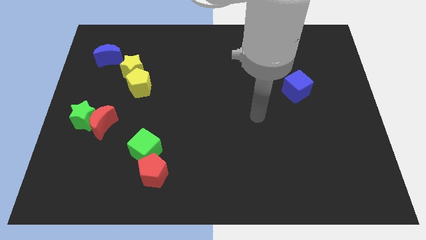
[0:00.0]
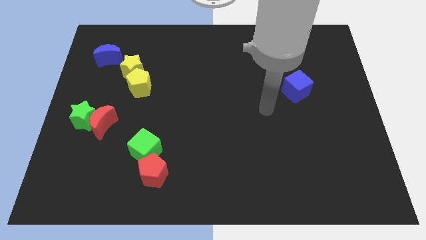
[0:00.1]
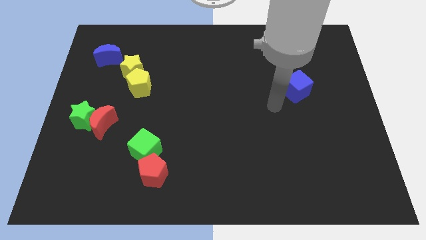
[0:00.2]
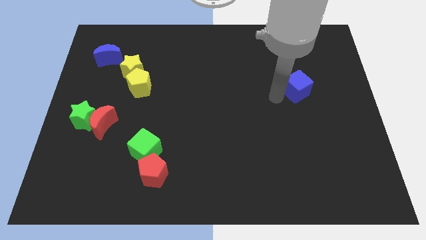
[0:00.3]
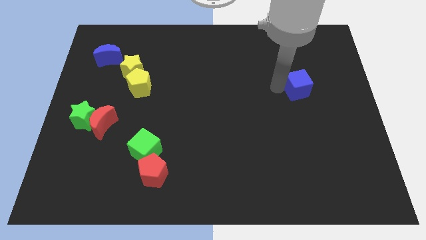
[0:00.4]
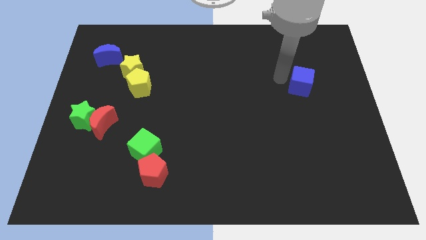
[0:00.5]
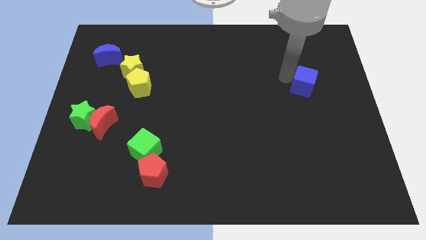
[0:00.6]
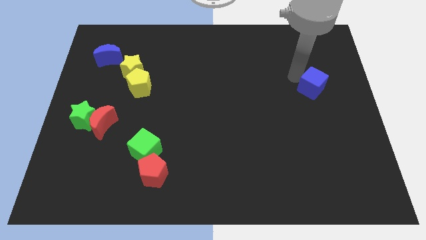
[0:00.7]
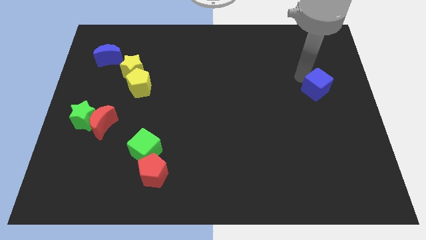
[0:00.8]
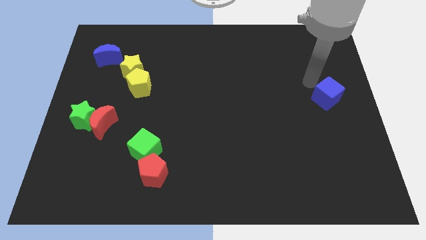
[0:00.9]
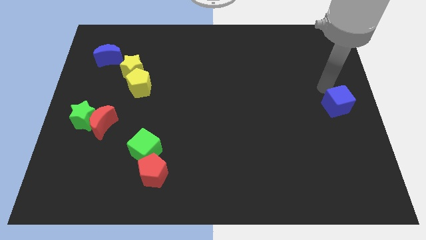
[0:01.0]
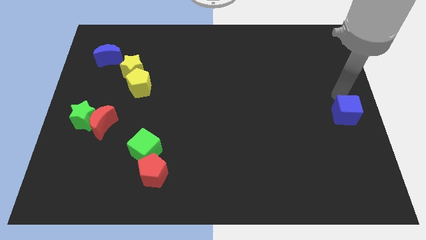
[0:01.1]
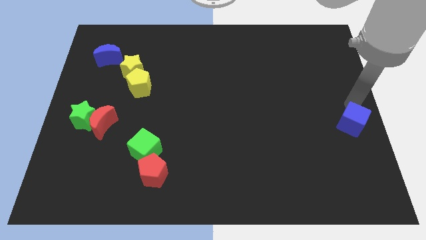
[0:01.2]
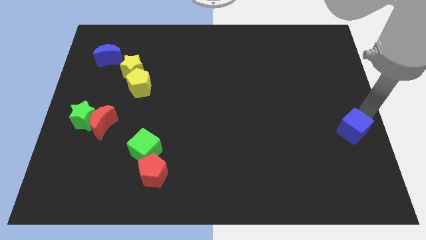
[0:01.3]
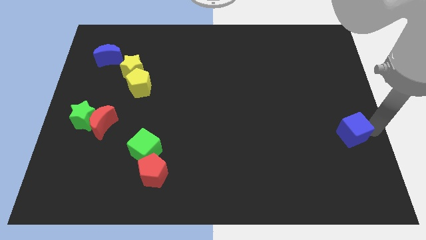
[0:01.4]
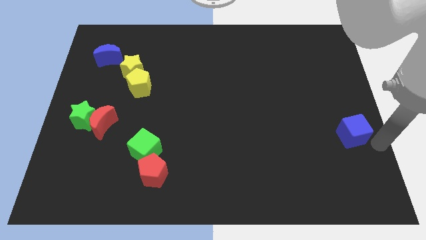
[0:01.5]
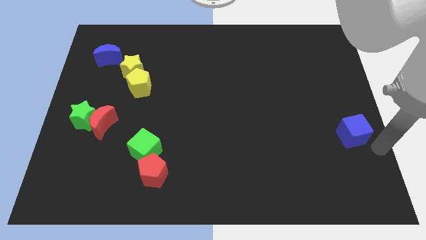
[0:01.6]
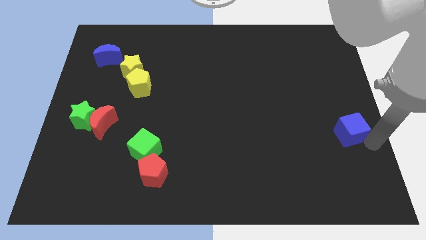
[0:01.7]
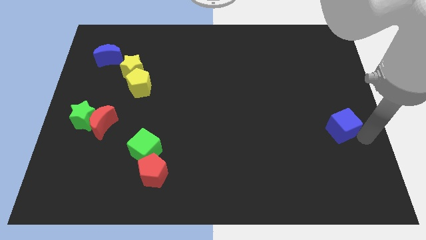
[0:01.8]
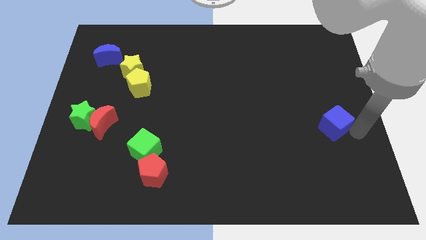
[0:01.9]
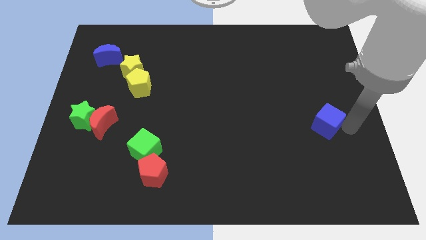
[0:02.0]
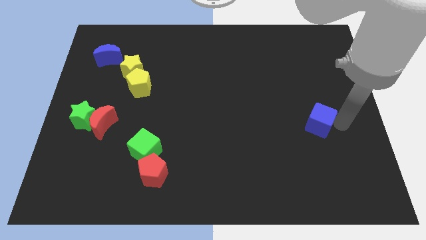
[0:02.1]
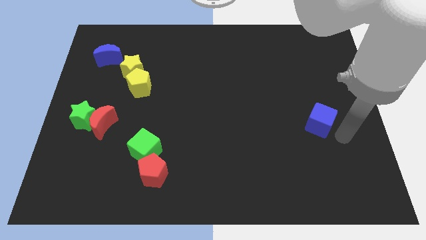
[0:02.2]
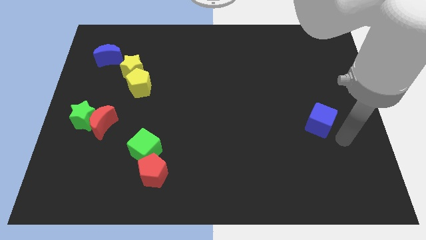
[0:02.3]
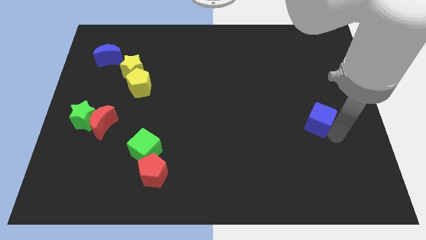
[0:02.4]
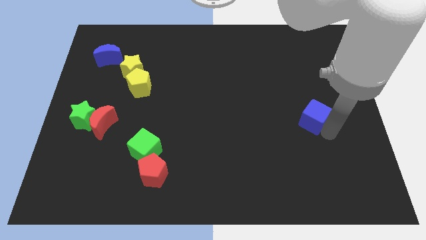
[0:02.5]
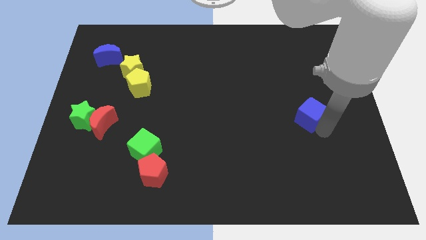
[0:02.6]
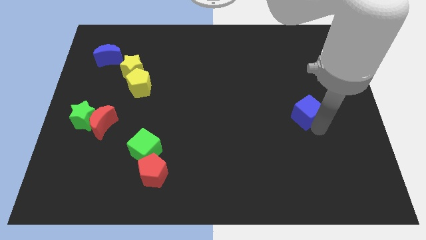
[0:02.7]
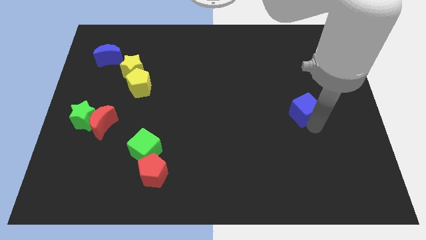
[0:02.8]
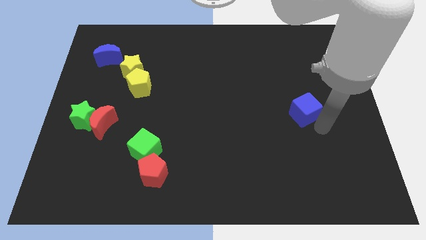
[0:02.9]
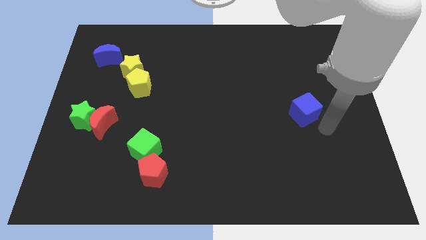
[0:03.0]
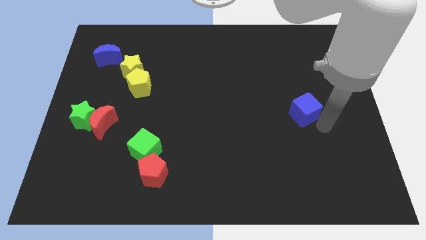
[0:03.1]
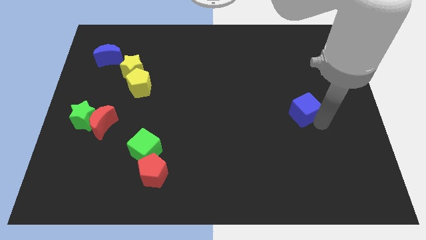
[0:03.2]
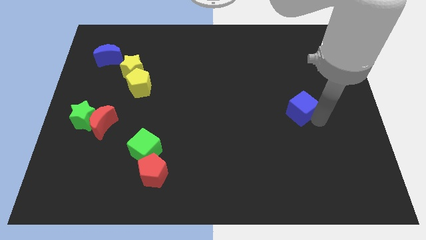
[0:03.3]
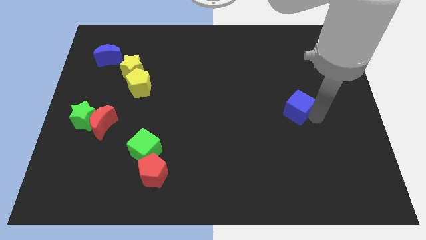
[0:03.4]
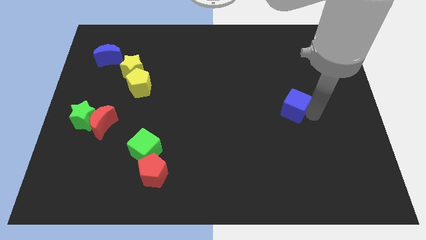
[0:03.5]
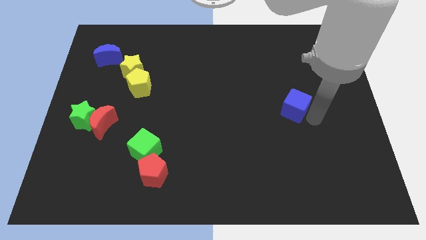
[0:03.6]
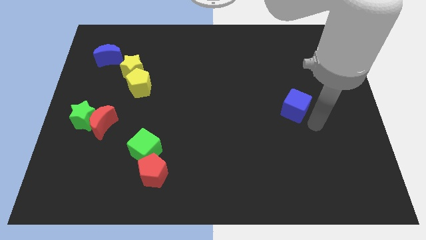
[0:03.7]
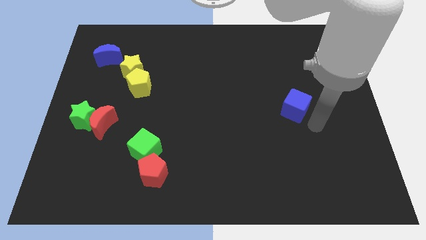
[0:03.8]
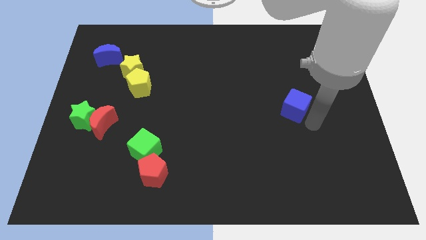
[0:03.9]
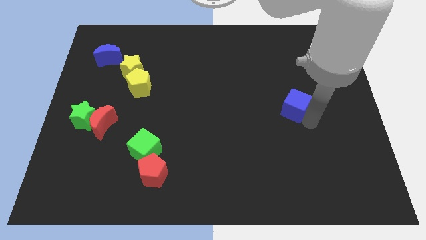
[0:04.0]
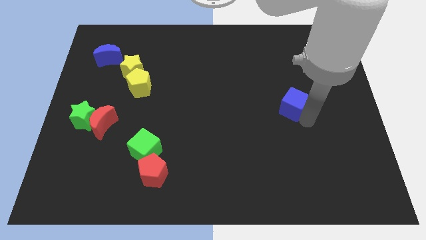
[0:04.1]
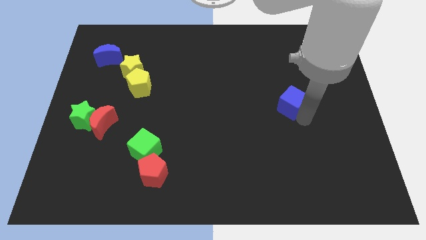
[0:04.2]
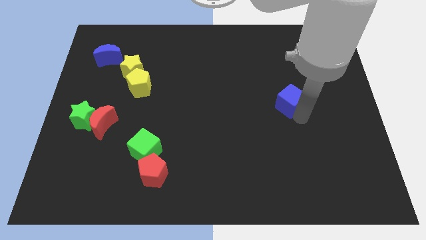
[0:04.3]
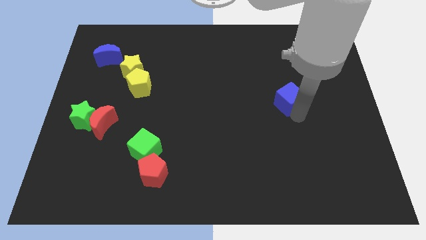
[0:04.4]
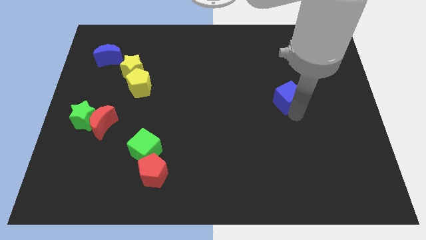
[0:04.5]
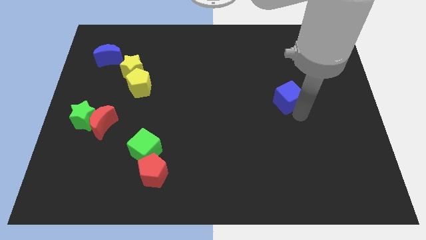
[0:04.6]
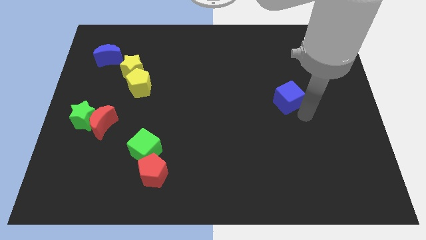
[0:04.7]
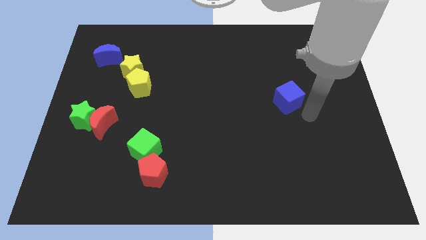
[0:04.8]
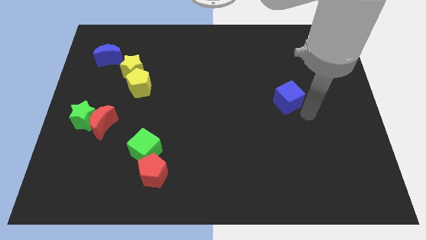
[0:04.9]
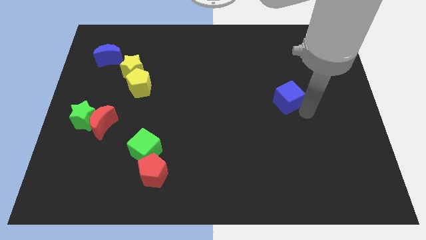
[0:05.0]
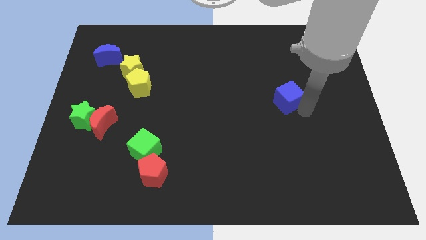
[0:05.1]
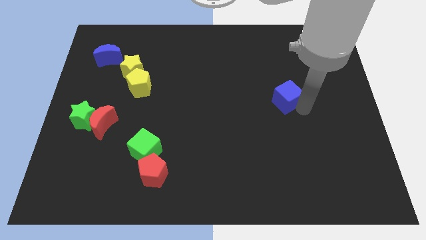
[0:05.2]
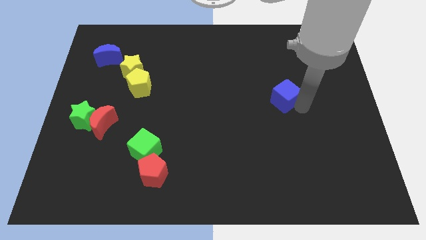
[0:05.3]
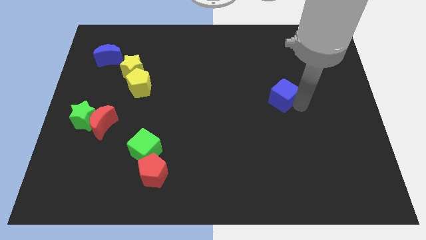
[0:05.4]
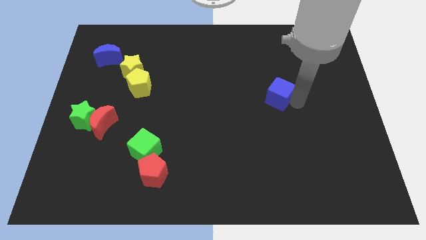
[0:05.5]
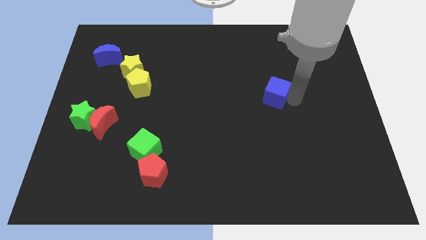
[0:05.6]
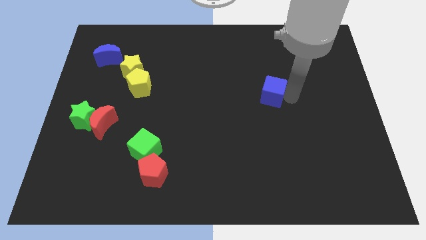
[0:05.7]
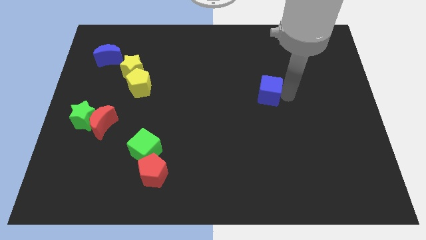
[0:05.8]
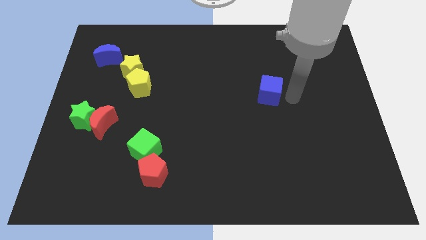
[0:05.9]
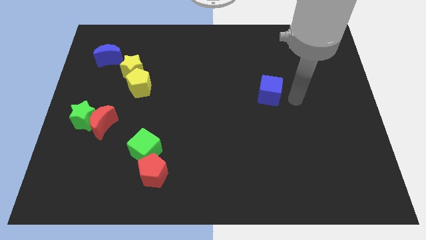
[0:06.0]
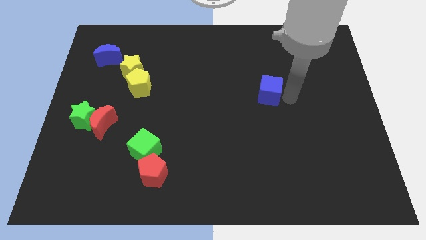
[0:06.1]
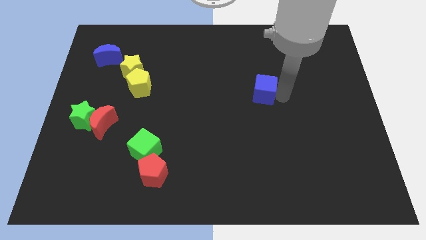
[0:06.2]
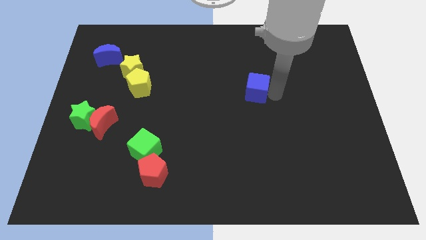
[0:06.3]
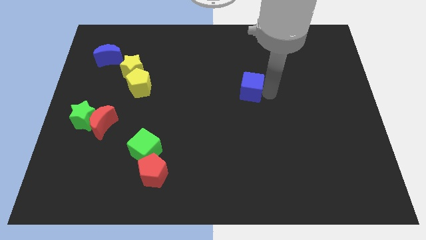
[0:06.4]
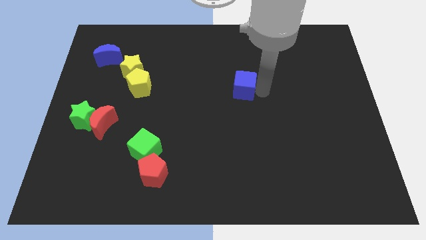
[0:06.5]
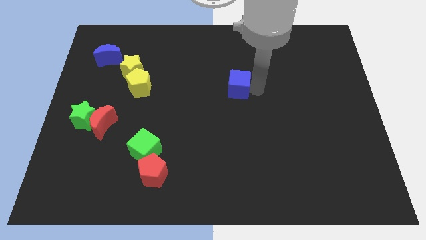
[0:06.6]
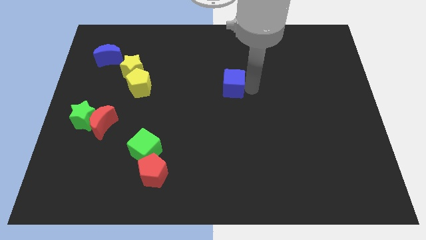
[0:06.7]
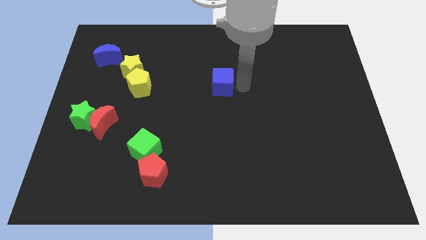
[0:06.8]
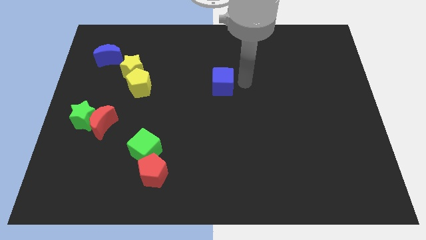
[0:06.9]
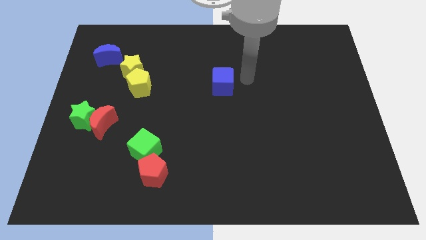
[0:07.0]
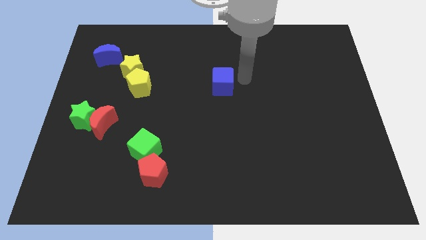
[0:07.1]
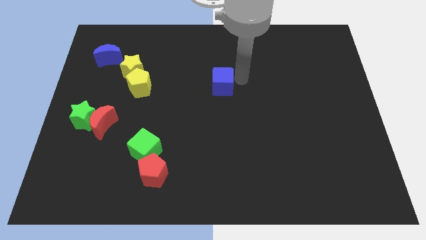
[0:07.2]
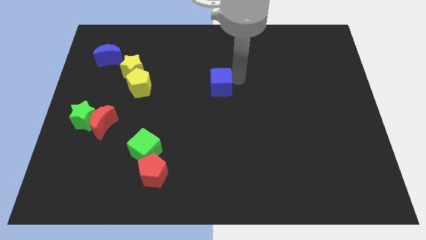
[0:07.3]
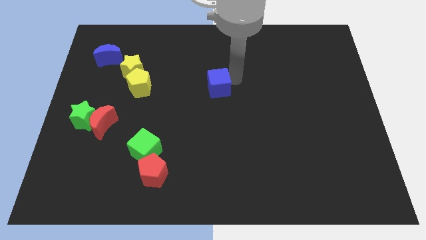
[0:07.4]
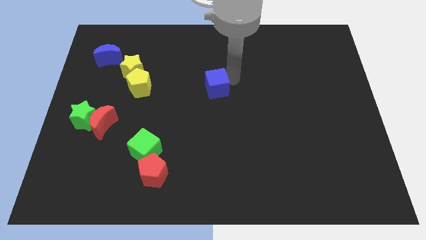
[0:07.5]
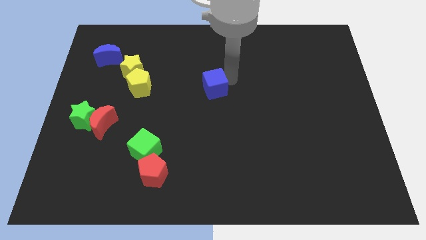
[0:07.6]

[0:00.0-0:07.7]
push the blue cube to the left

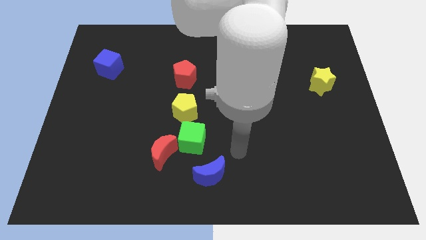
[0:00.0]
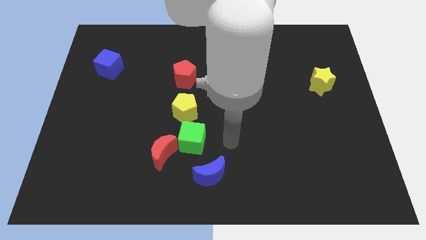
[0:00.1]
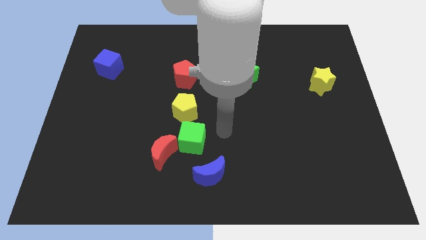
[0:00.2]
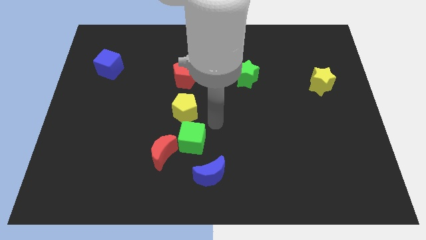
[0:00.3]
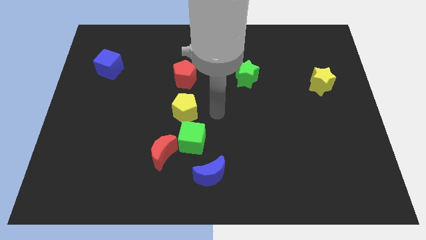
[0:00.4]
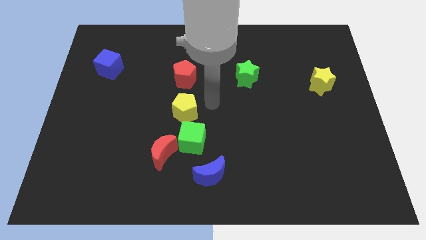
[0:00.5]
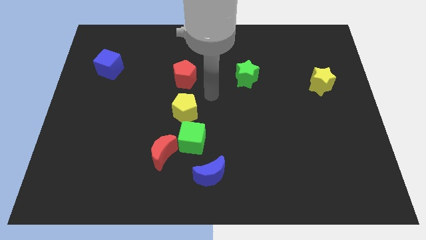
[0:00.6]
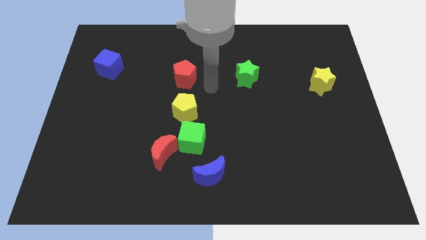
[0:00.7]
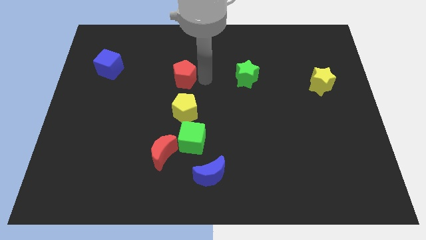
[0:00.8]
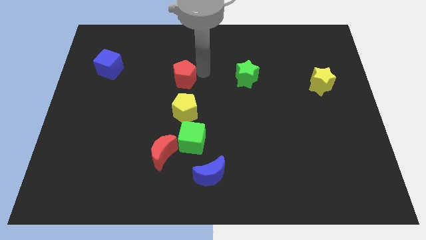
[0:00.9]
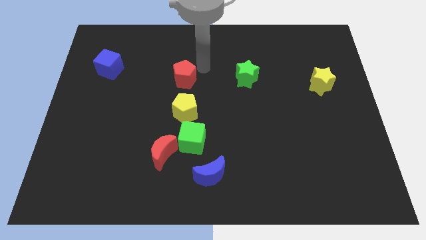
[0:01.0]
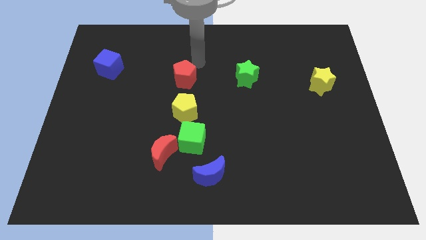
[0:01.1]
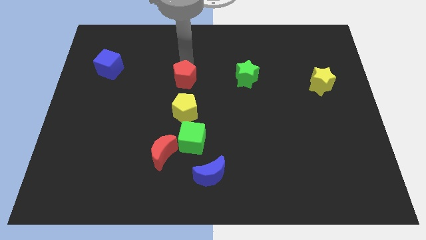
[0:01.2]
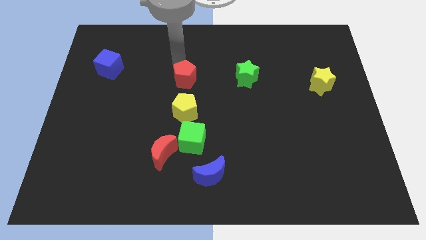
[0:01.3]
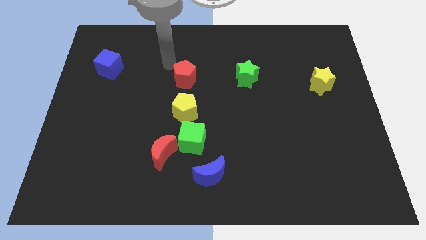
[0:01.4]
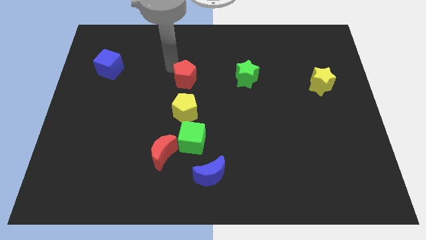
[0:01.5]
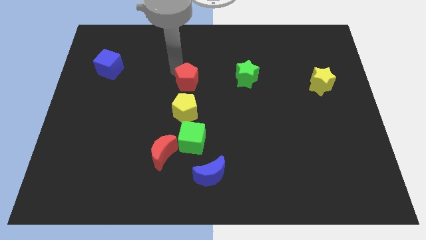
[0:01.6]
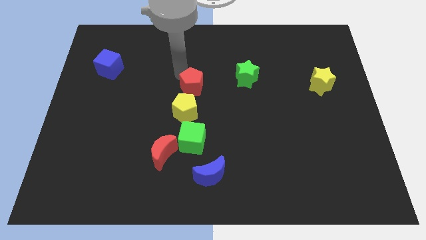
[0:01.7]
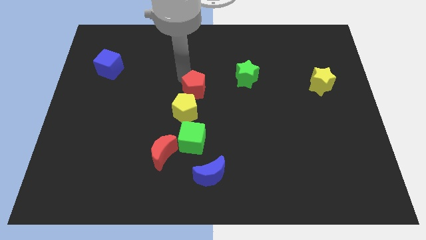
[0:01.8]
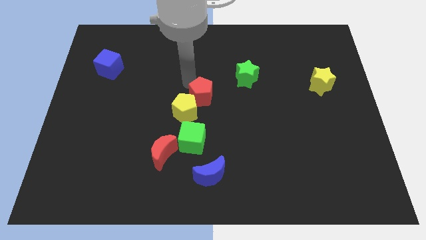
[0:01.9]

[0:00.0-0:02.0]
slightly push the red pentagon downwards and then to the right
